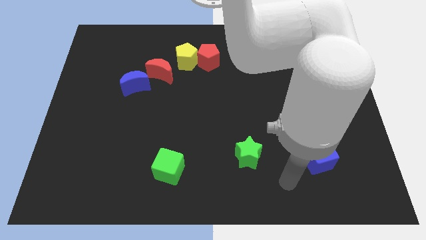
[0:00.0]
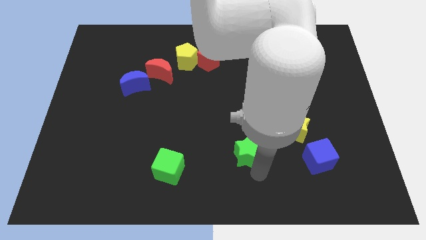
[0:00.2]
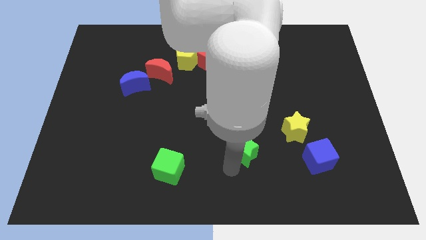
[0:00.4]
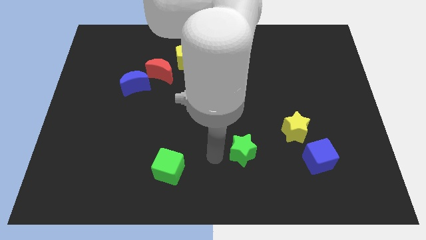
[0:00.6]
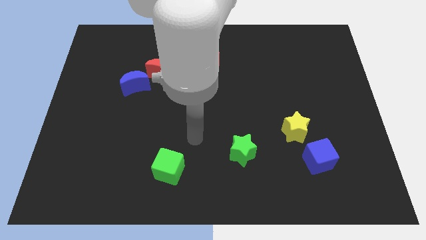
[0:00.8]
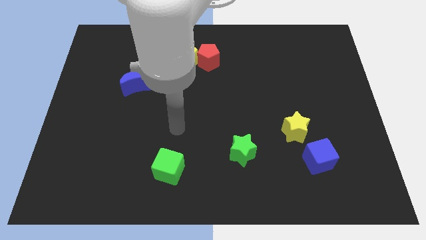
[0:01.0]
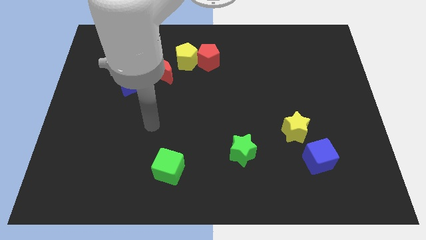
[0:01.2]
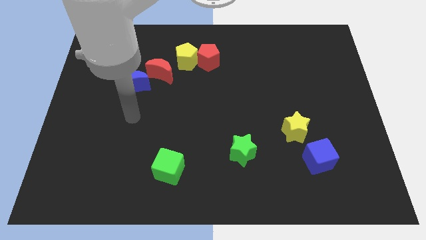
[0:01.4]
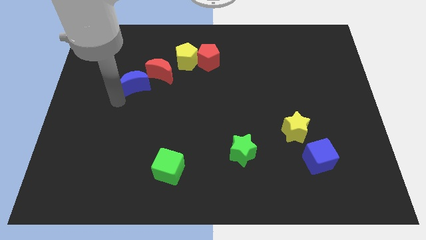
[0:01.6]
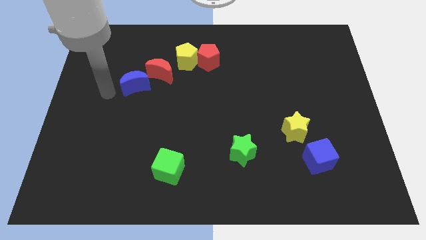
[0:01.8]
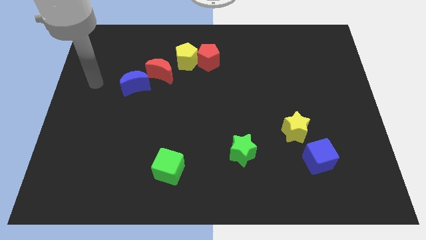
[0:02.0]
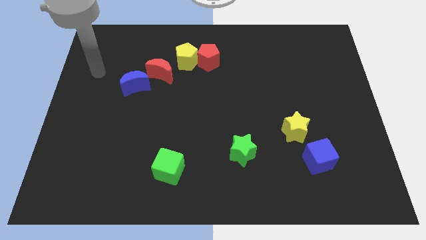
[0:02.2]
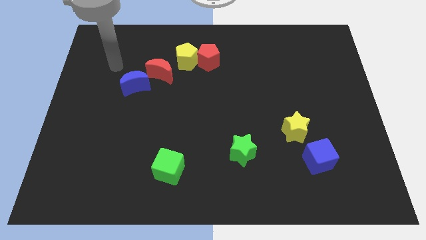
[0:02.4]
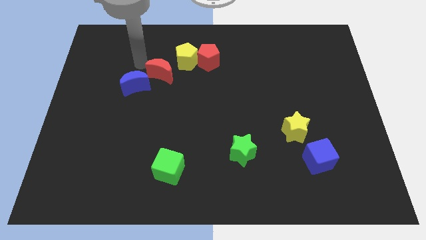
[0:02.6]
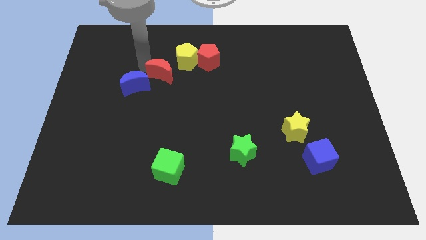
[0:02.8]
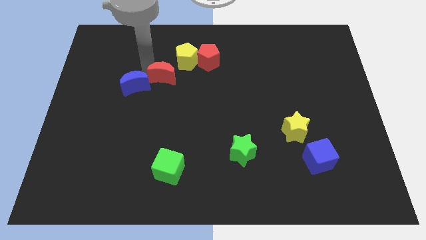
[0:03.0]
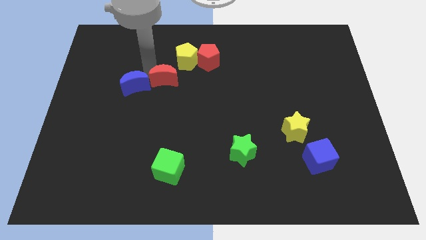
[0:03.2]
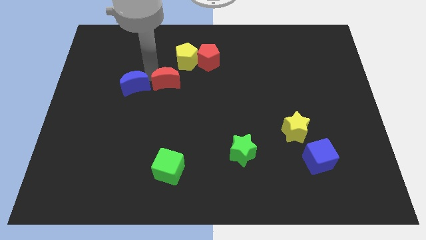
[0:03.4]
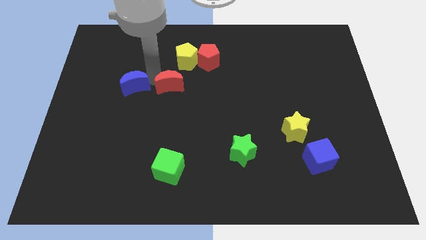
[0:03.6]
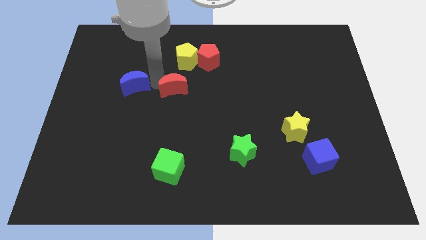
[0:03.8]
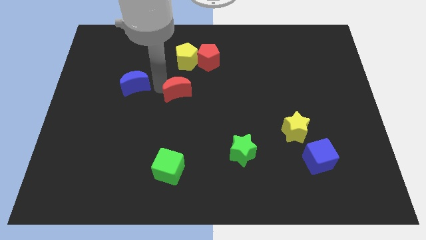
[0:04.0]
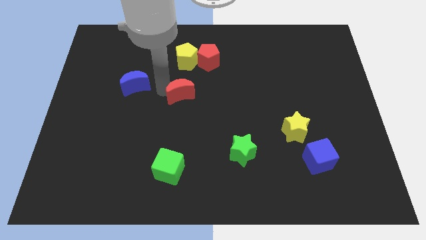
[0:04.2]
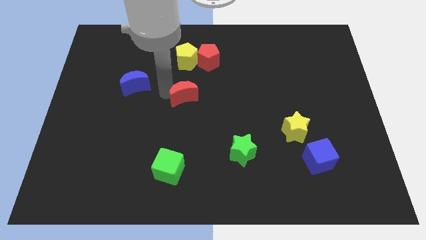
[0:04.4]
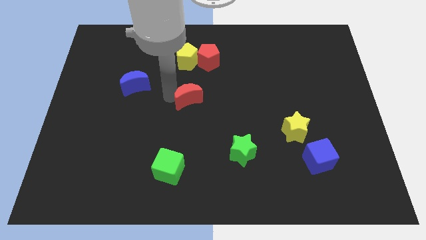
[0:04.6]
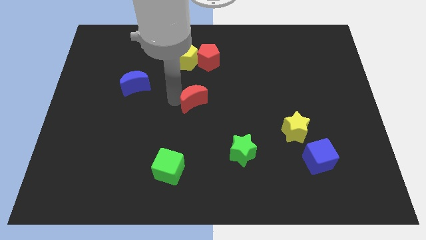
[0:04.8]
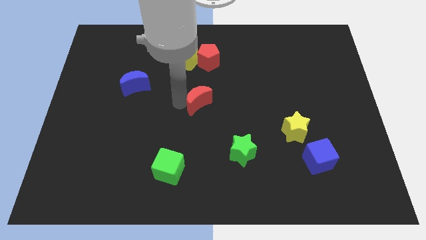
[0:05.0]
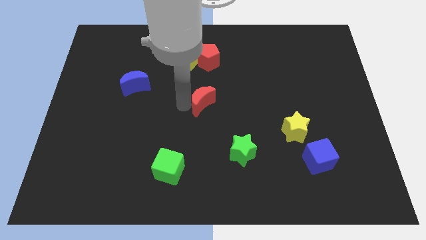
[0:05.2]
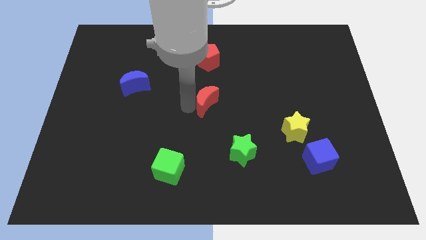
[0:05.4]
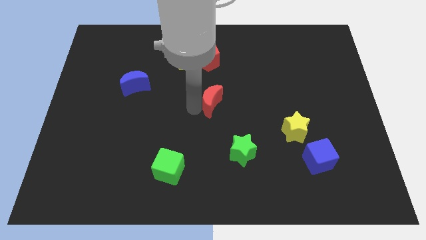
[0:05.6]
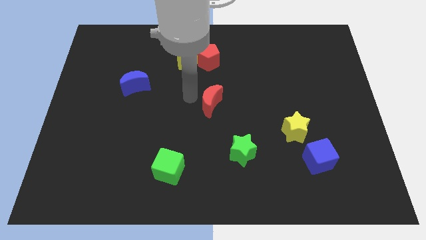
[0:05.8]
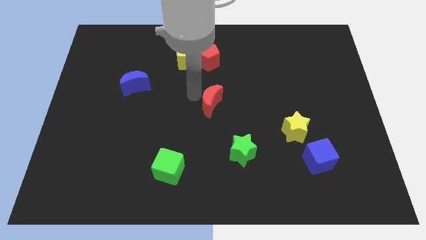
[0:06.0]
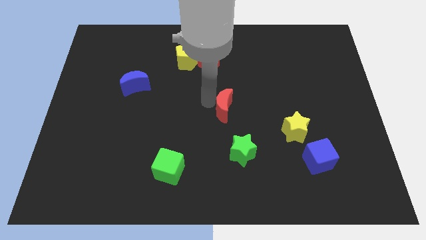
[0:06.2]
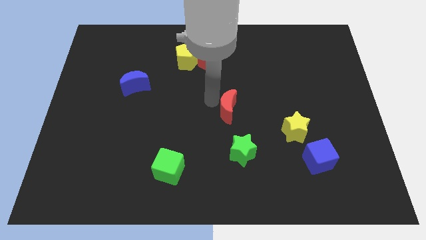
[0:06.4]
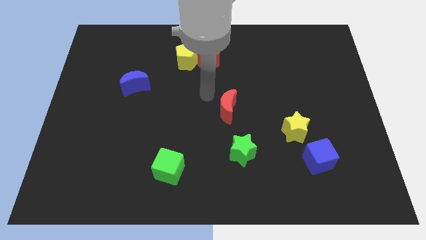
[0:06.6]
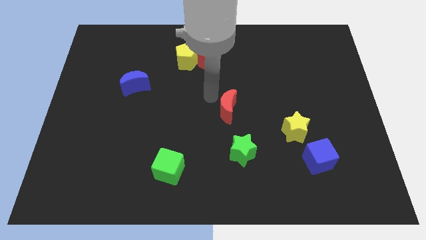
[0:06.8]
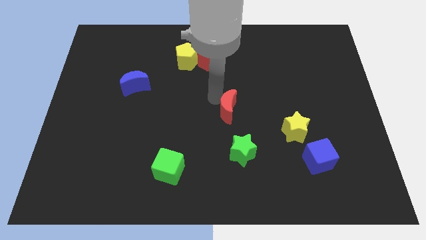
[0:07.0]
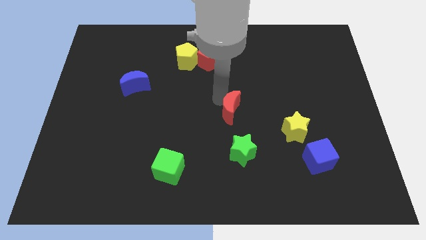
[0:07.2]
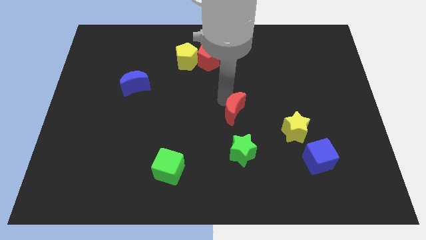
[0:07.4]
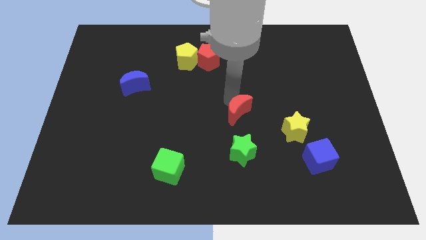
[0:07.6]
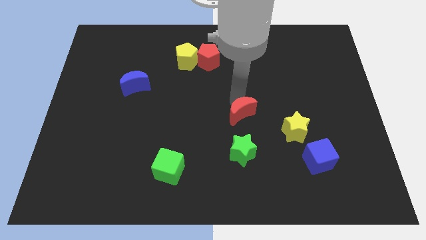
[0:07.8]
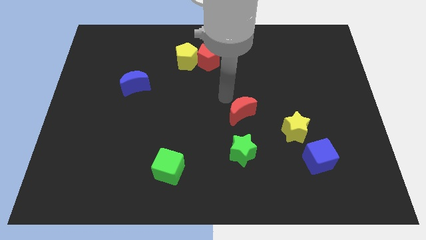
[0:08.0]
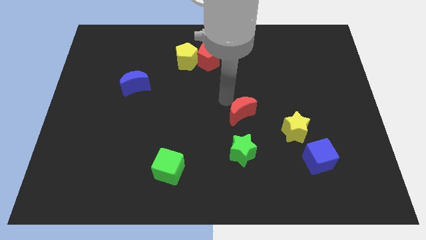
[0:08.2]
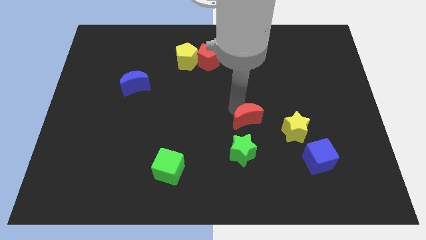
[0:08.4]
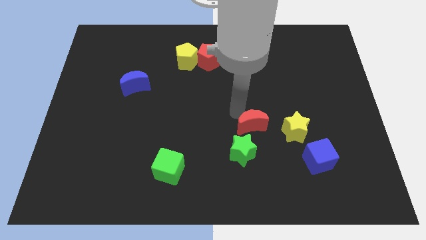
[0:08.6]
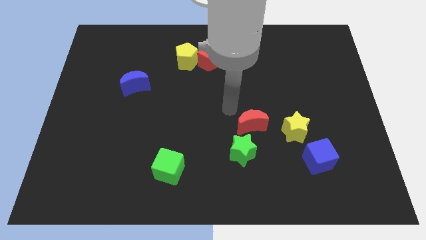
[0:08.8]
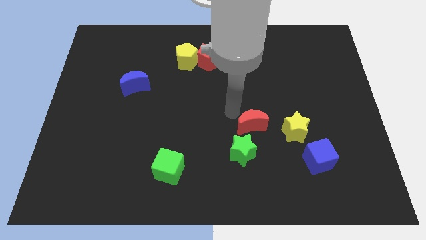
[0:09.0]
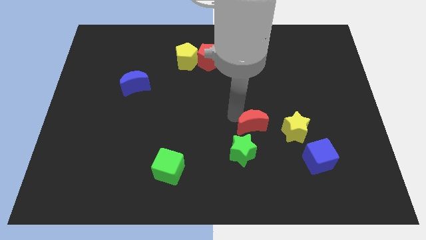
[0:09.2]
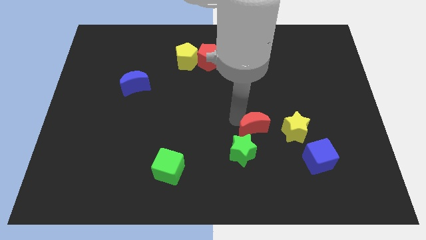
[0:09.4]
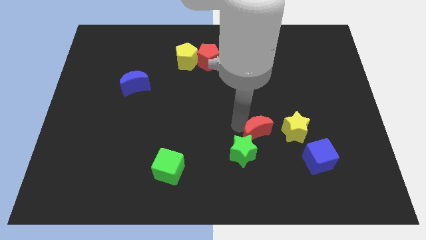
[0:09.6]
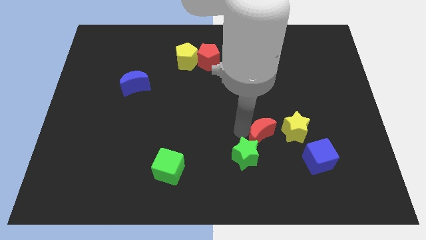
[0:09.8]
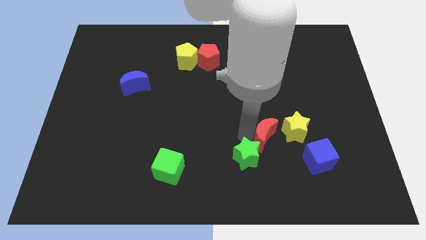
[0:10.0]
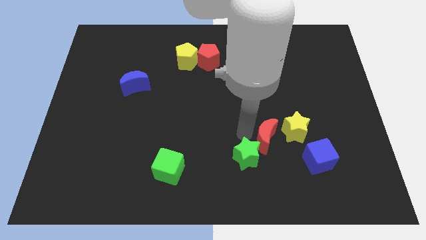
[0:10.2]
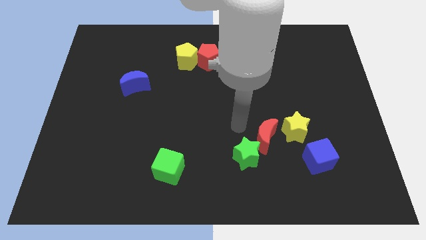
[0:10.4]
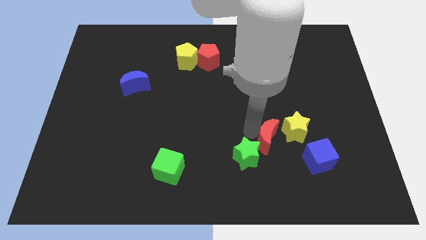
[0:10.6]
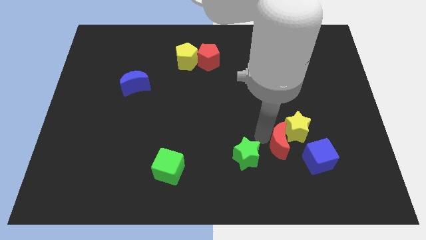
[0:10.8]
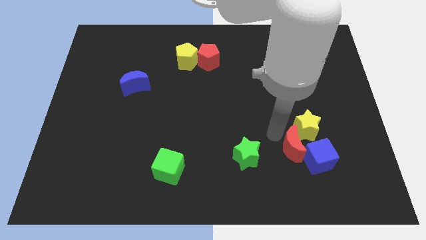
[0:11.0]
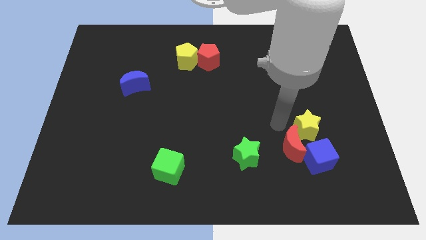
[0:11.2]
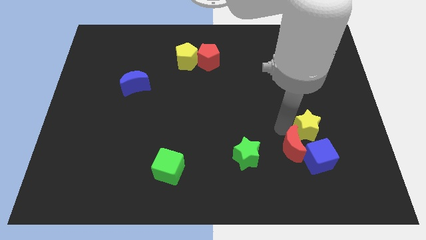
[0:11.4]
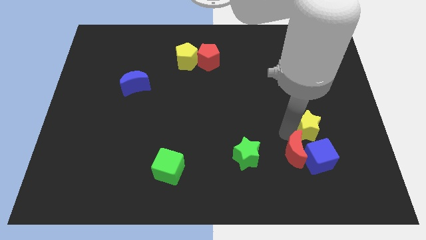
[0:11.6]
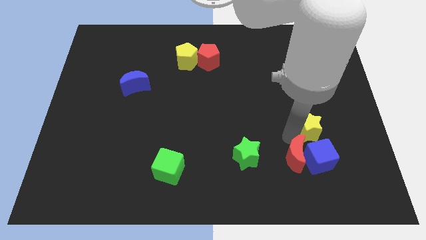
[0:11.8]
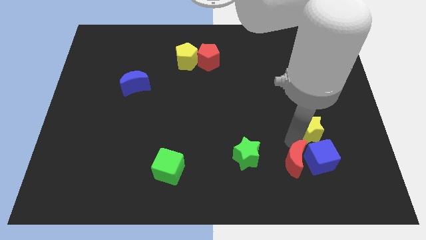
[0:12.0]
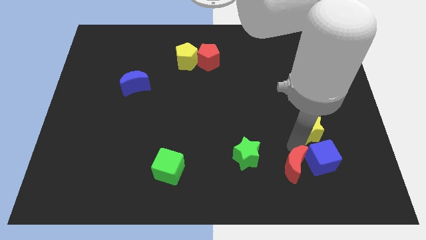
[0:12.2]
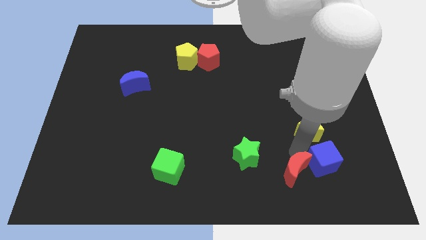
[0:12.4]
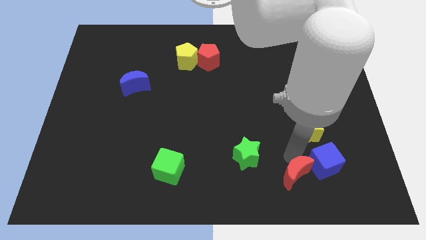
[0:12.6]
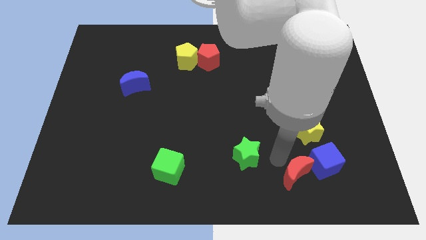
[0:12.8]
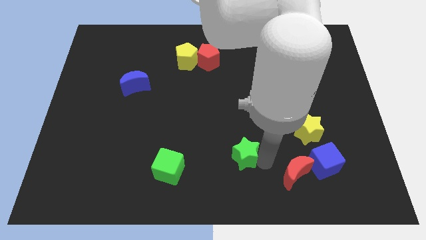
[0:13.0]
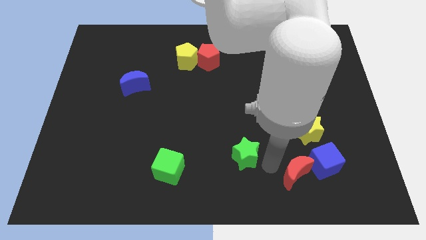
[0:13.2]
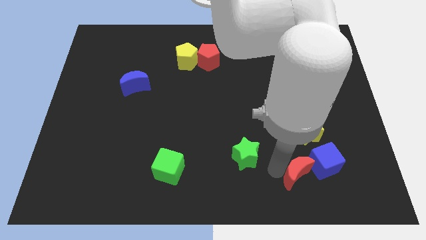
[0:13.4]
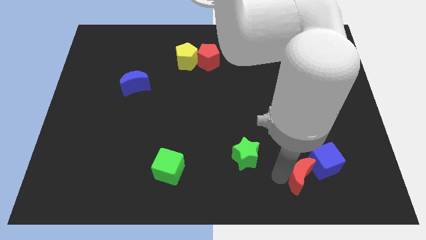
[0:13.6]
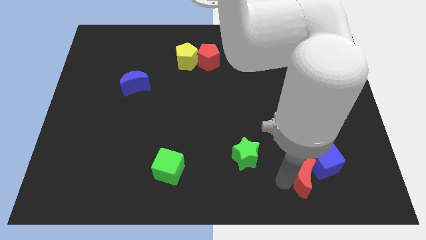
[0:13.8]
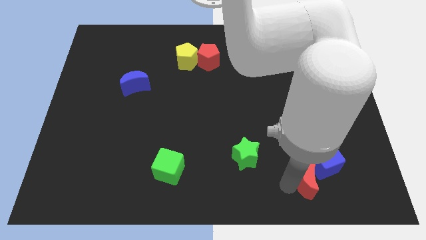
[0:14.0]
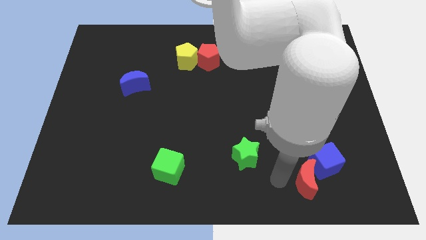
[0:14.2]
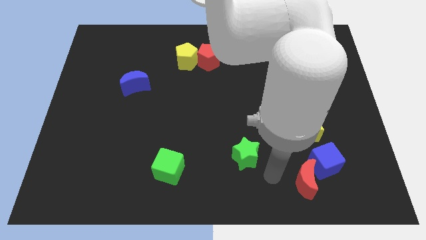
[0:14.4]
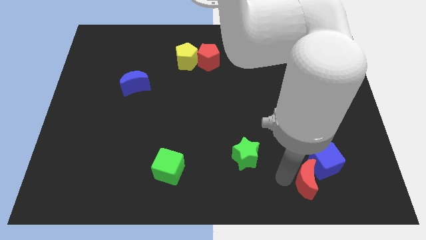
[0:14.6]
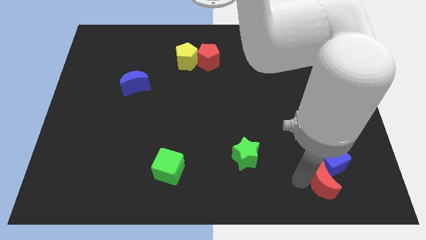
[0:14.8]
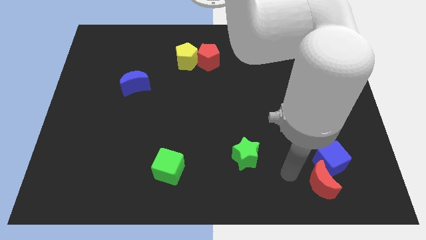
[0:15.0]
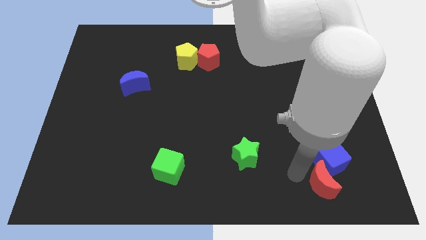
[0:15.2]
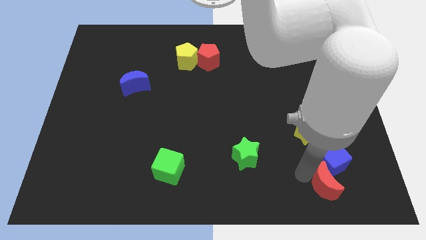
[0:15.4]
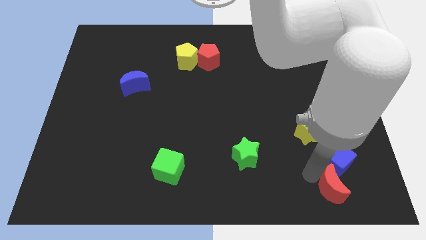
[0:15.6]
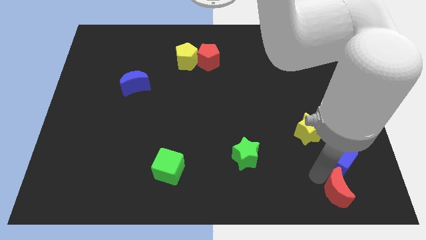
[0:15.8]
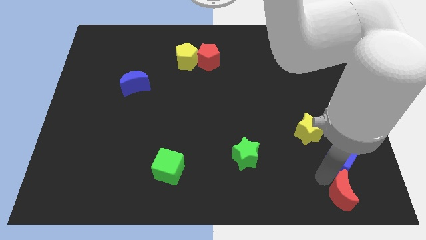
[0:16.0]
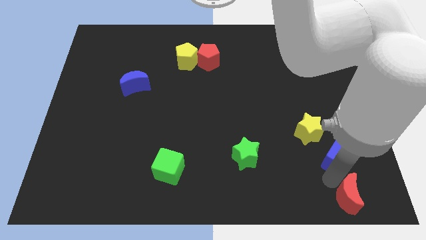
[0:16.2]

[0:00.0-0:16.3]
push the red moon to the bottom right of the board
